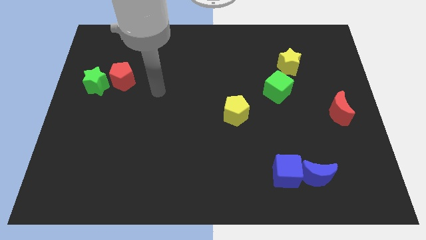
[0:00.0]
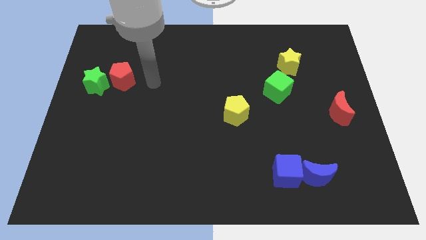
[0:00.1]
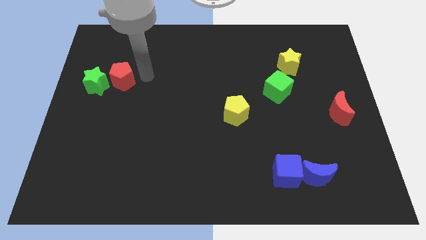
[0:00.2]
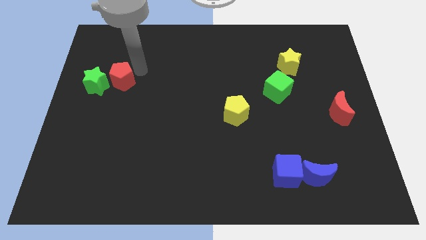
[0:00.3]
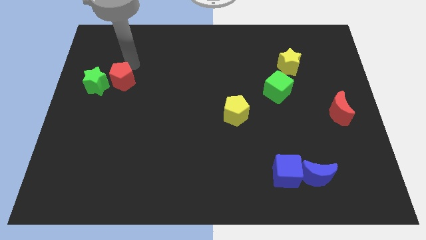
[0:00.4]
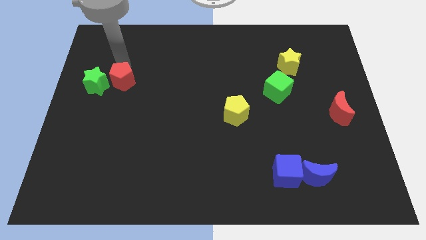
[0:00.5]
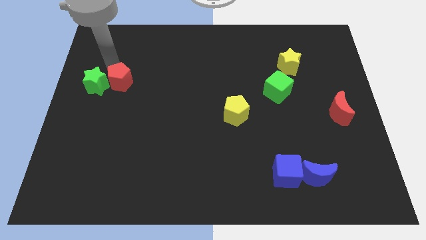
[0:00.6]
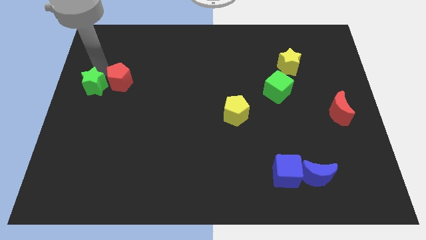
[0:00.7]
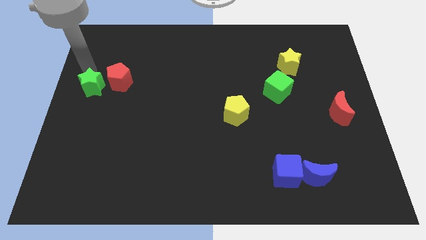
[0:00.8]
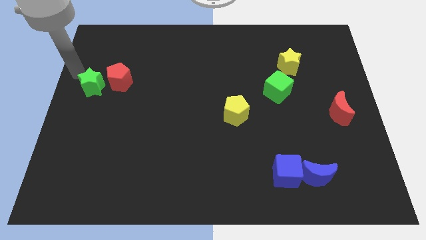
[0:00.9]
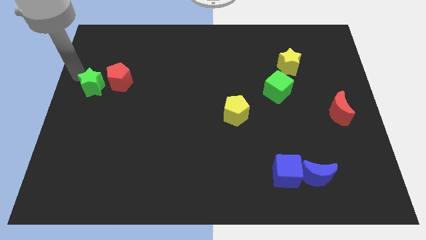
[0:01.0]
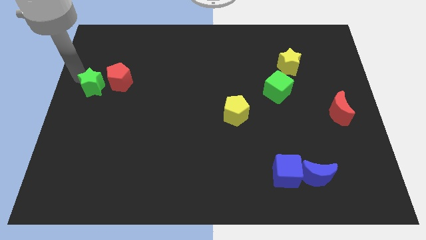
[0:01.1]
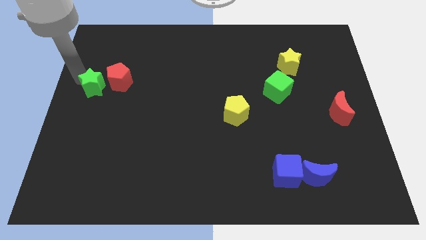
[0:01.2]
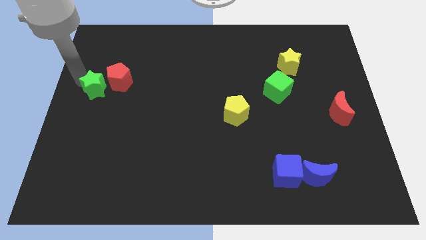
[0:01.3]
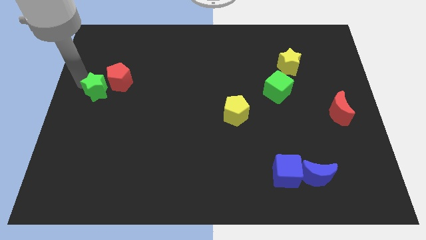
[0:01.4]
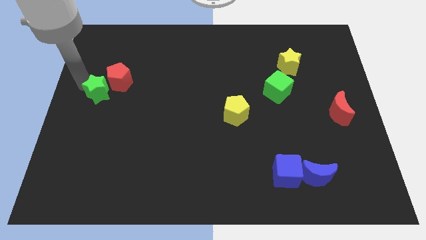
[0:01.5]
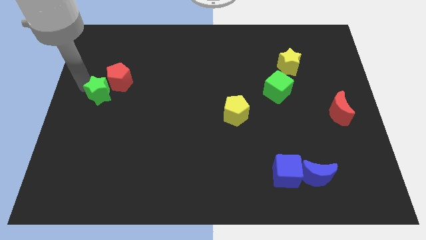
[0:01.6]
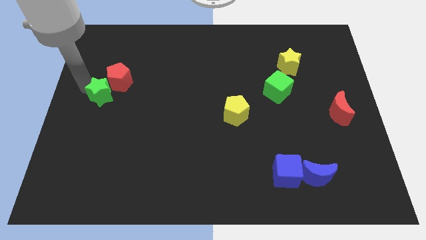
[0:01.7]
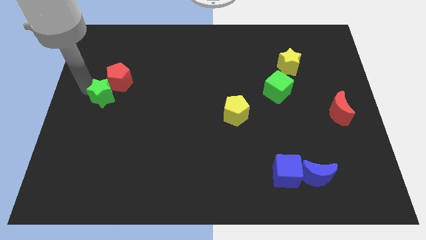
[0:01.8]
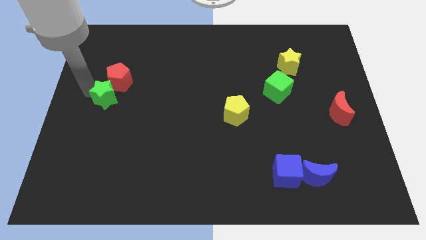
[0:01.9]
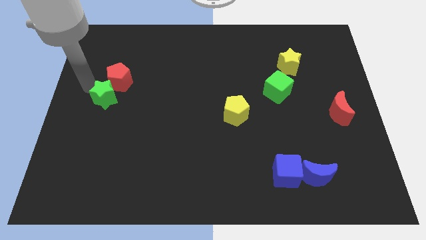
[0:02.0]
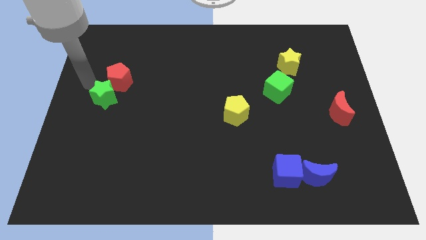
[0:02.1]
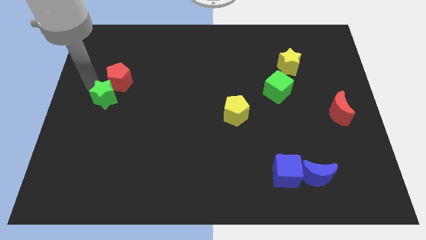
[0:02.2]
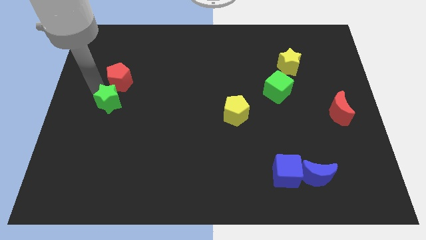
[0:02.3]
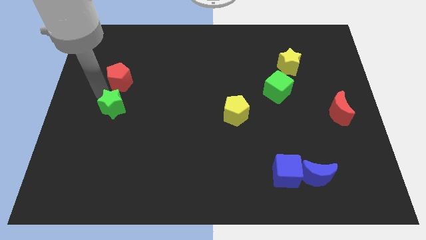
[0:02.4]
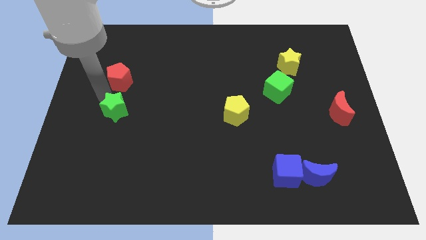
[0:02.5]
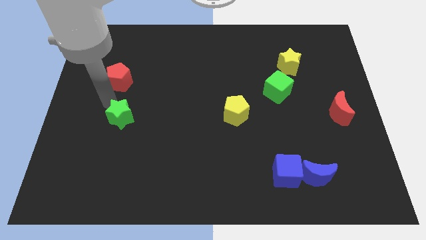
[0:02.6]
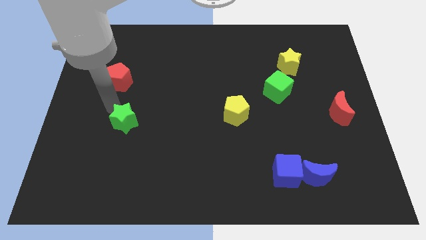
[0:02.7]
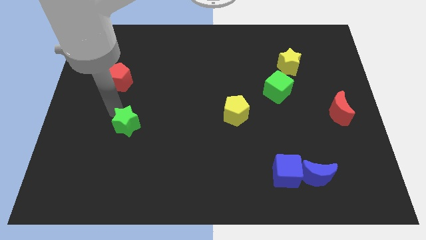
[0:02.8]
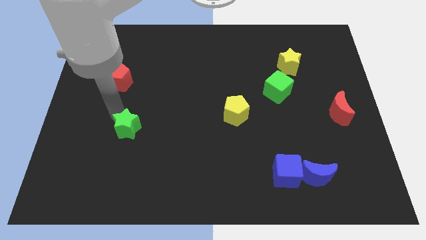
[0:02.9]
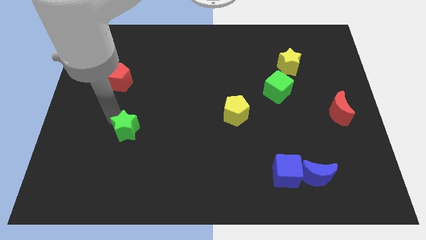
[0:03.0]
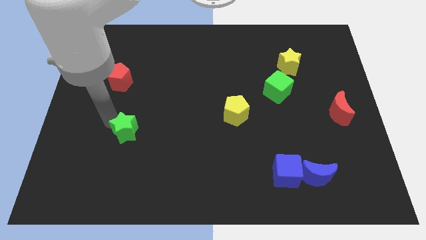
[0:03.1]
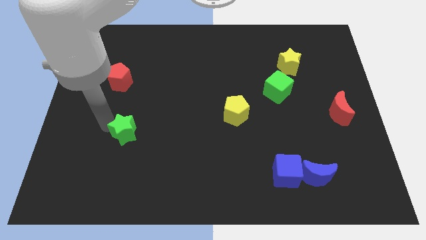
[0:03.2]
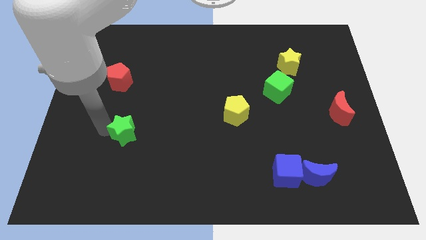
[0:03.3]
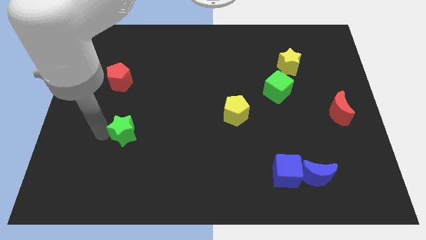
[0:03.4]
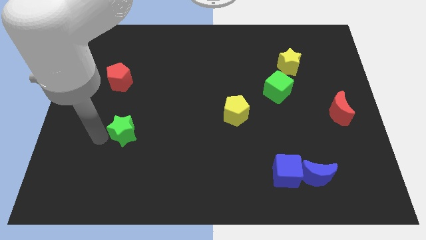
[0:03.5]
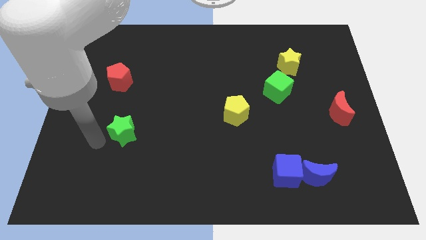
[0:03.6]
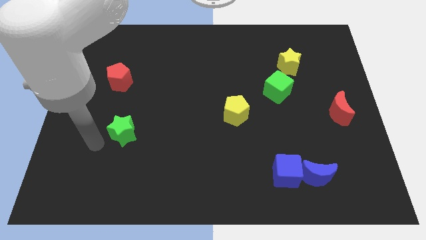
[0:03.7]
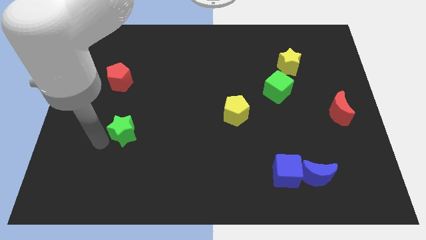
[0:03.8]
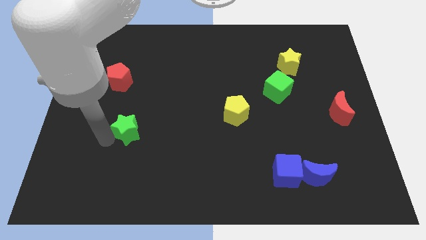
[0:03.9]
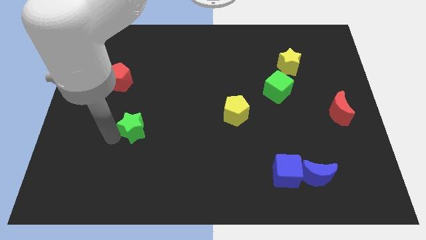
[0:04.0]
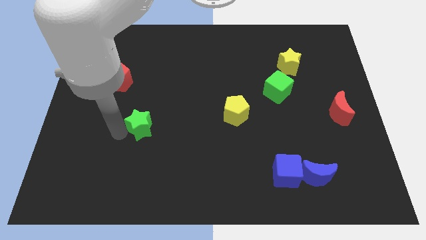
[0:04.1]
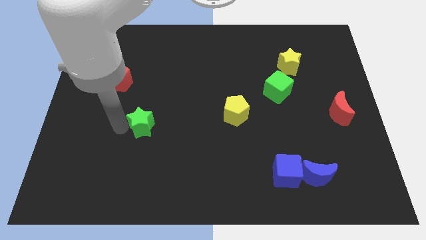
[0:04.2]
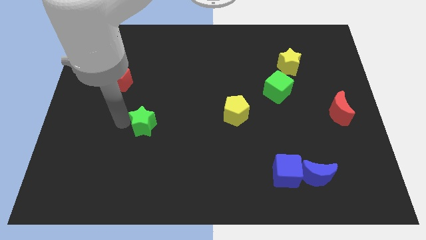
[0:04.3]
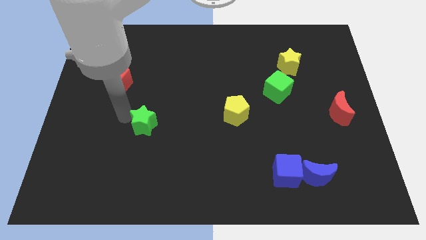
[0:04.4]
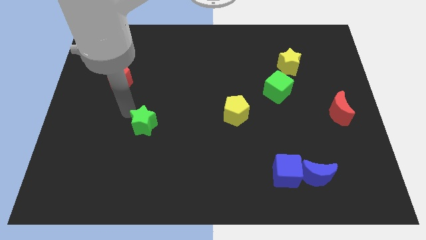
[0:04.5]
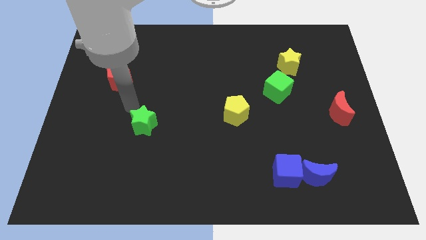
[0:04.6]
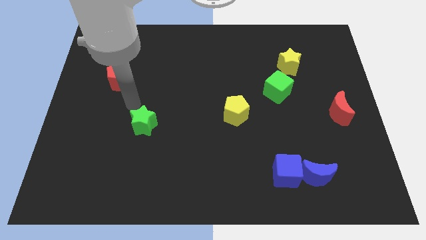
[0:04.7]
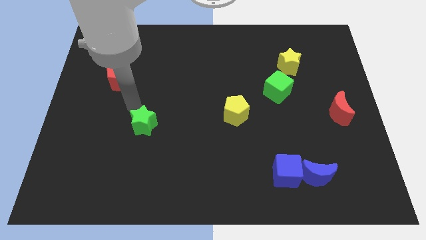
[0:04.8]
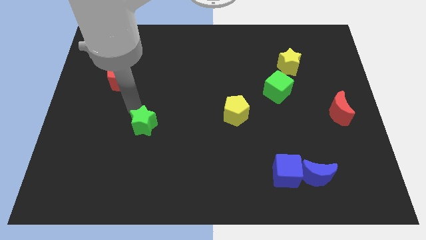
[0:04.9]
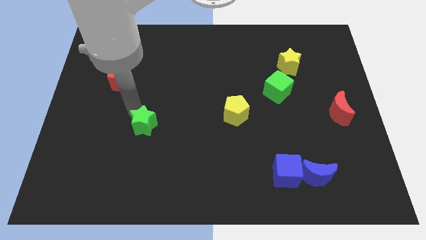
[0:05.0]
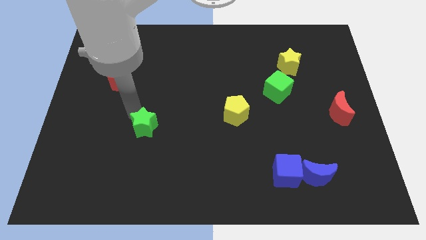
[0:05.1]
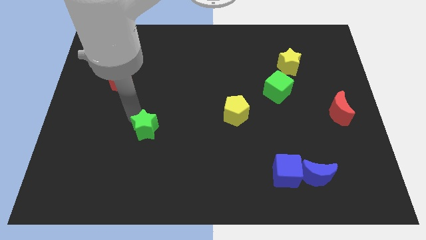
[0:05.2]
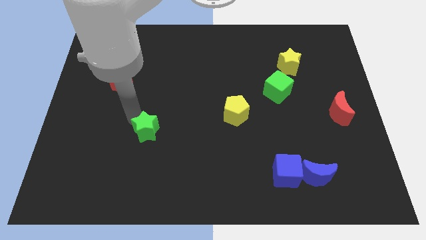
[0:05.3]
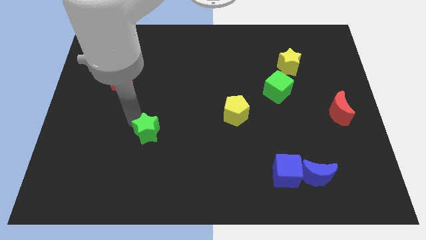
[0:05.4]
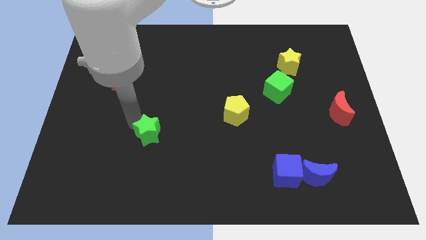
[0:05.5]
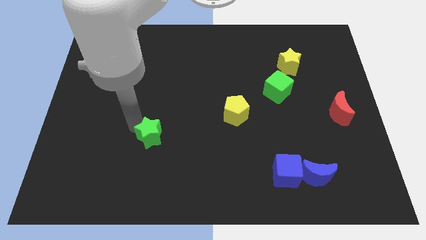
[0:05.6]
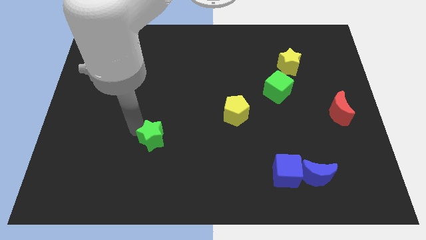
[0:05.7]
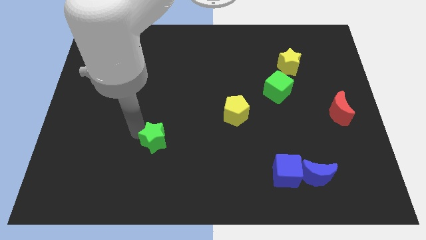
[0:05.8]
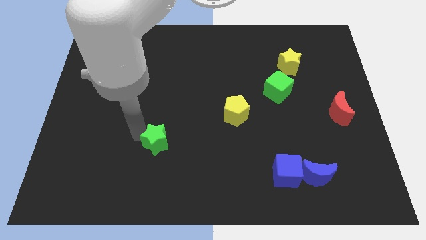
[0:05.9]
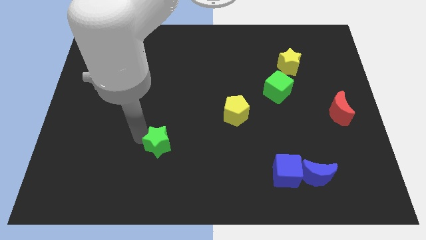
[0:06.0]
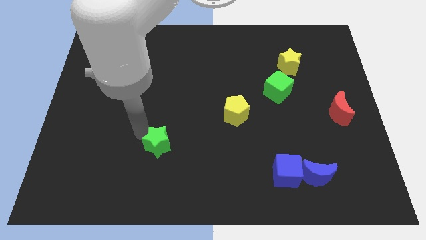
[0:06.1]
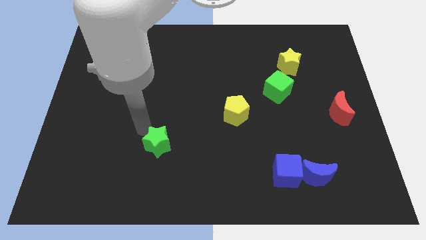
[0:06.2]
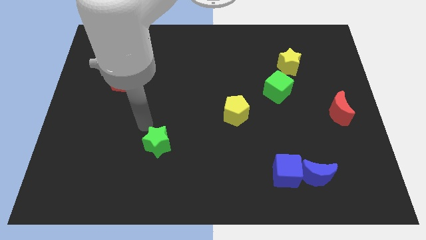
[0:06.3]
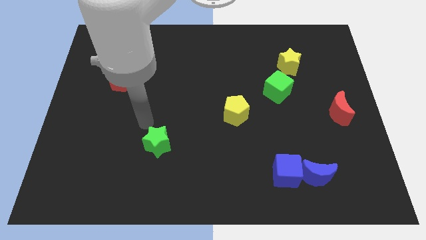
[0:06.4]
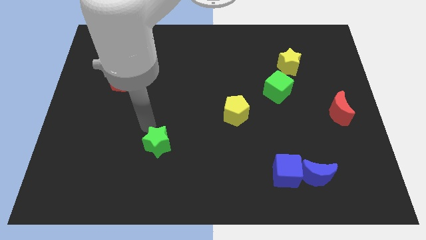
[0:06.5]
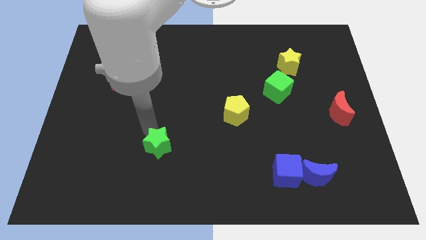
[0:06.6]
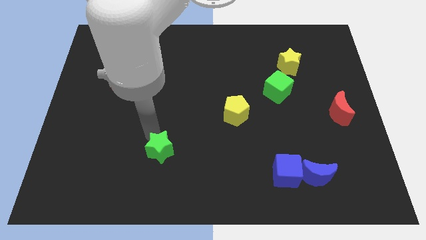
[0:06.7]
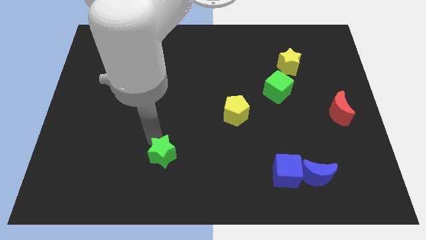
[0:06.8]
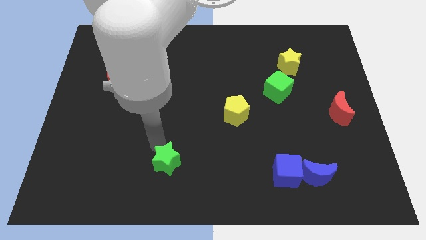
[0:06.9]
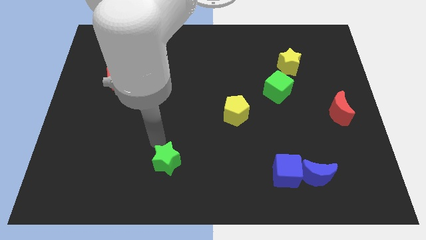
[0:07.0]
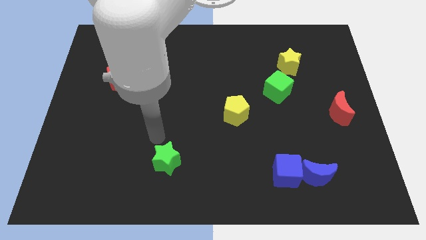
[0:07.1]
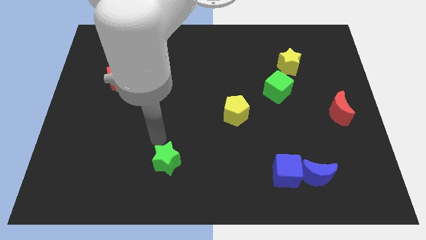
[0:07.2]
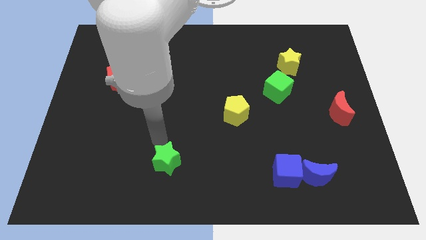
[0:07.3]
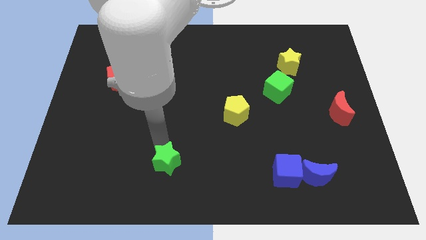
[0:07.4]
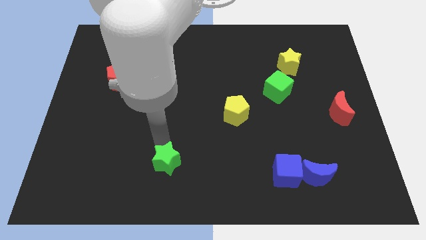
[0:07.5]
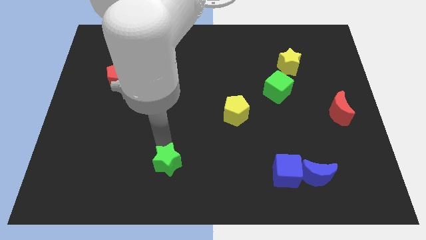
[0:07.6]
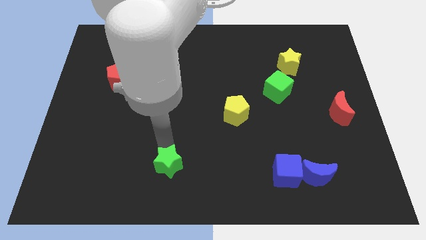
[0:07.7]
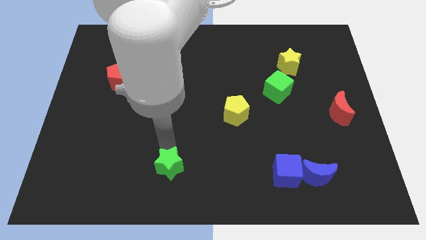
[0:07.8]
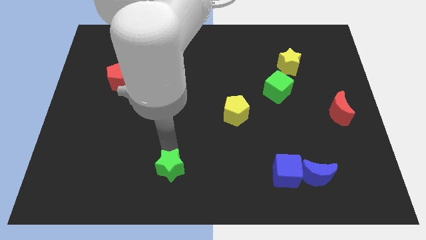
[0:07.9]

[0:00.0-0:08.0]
push the green star to the bottom side
